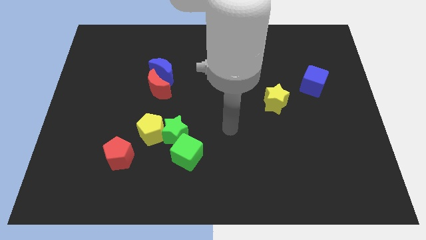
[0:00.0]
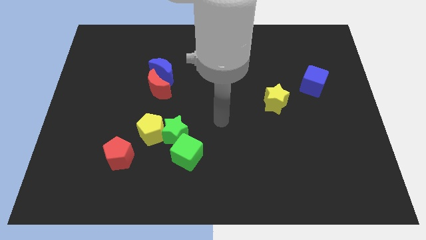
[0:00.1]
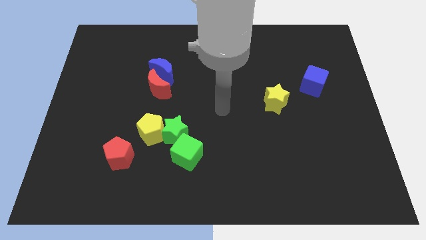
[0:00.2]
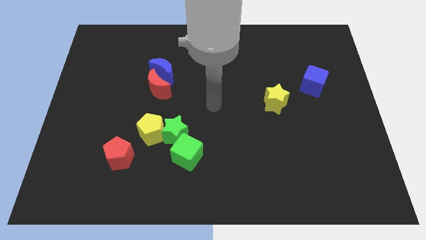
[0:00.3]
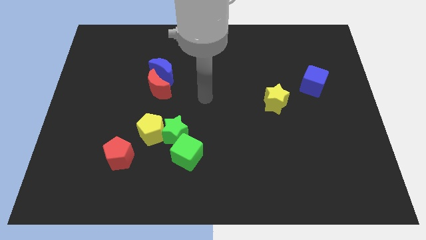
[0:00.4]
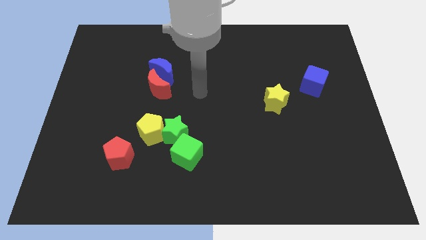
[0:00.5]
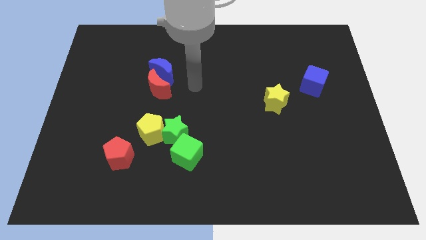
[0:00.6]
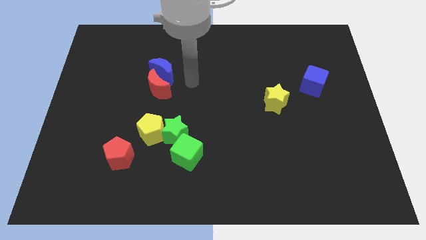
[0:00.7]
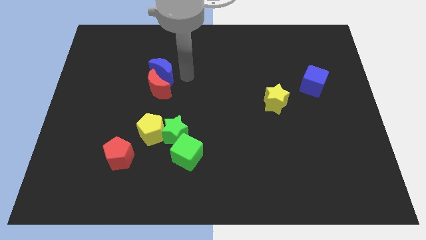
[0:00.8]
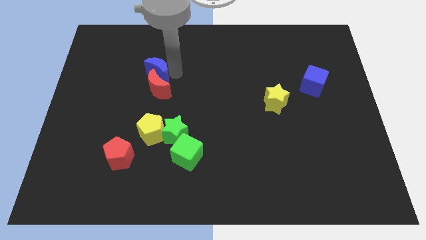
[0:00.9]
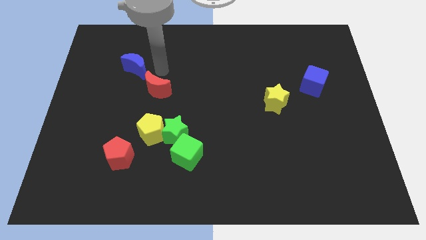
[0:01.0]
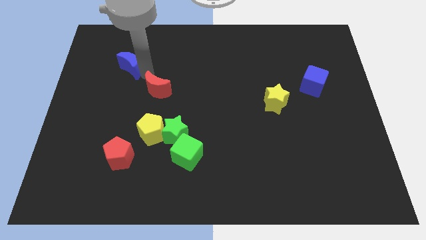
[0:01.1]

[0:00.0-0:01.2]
pull the red moon apart from the blue moon

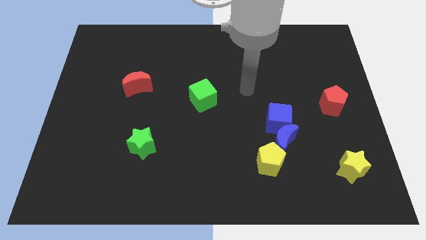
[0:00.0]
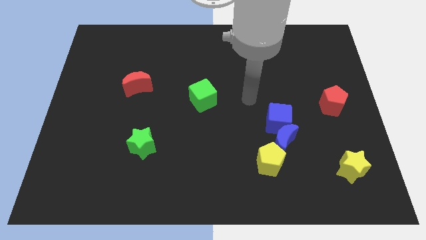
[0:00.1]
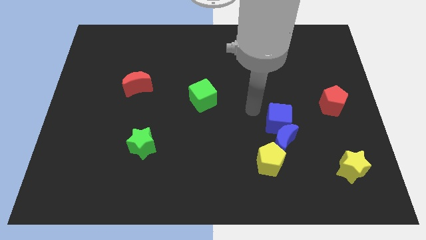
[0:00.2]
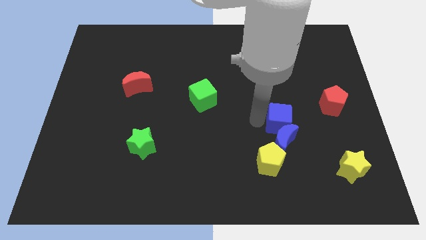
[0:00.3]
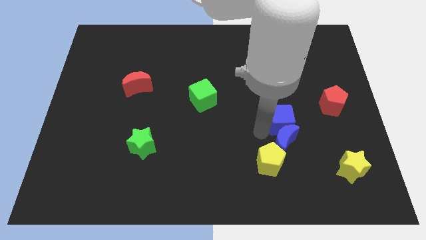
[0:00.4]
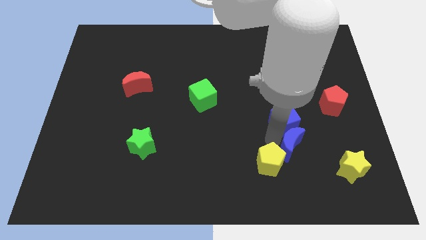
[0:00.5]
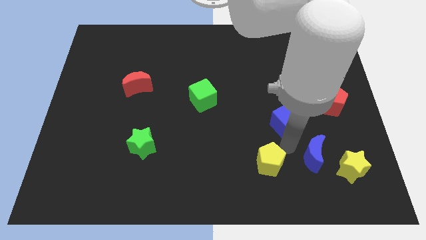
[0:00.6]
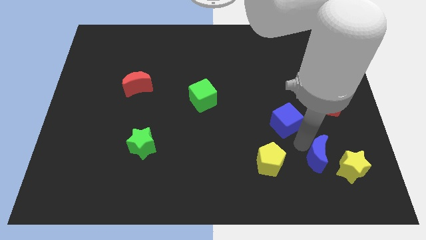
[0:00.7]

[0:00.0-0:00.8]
pull the blue cube apart from the blue moon

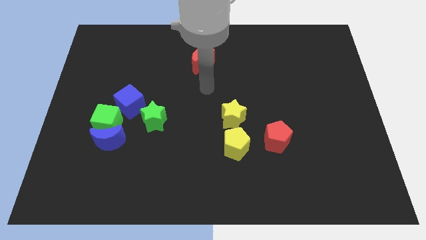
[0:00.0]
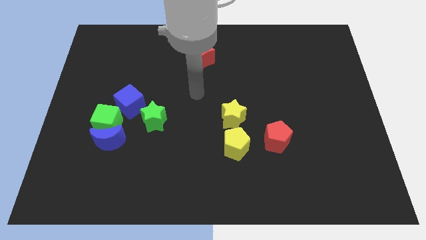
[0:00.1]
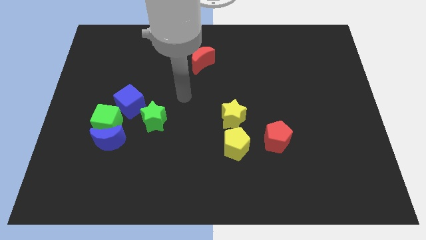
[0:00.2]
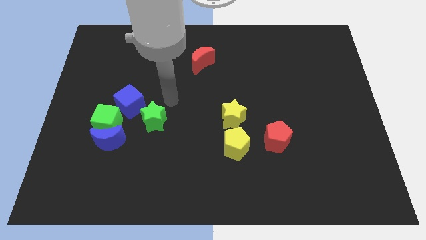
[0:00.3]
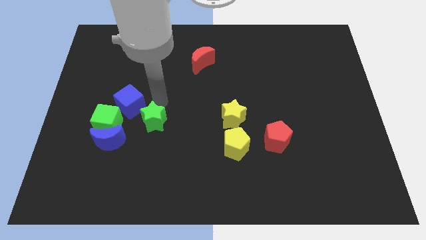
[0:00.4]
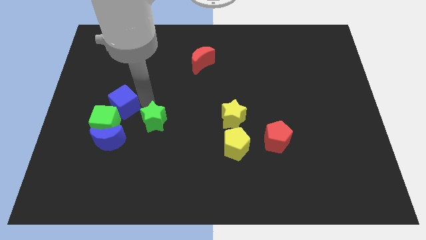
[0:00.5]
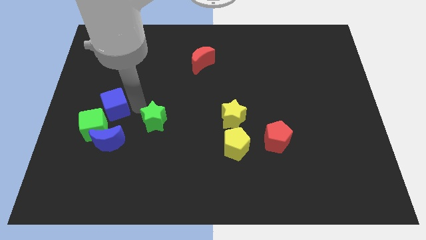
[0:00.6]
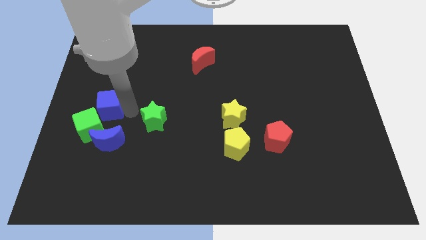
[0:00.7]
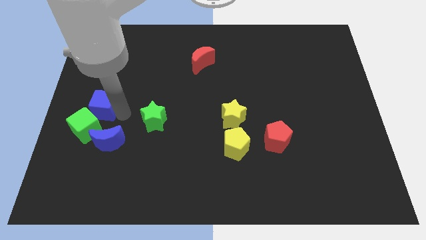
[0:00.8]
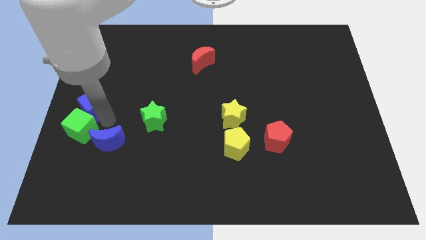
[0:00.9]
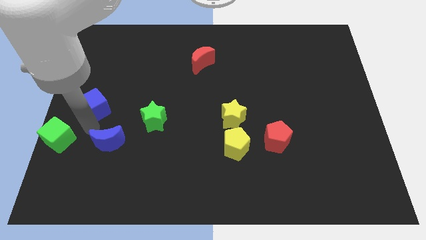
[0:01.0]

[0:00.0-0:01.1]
separate the blue moon from the green cube

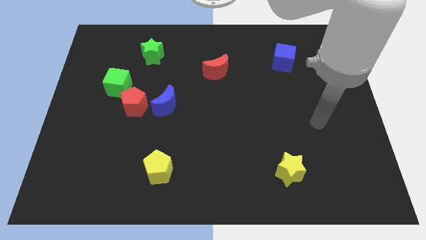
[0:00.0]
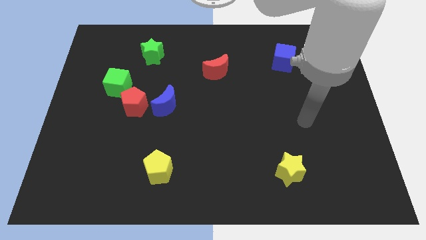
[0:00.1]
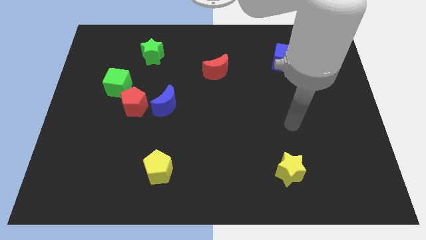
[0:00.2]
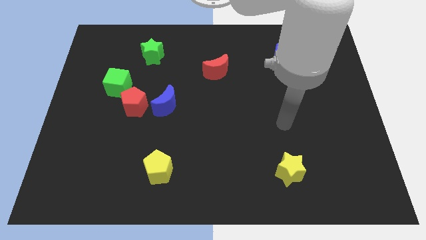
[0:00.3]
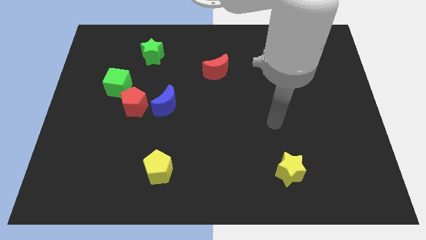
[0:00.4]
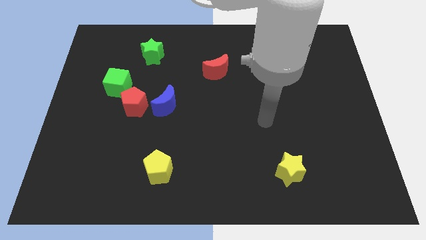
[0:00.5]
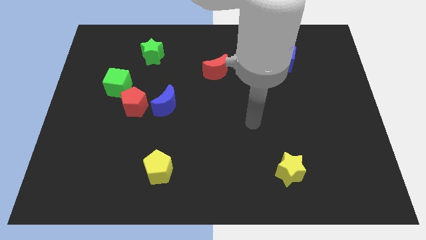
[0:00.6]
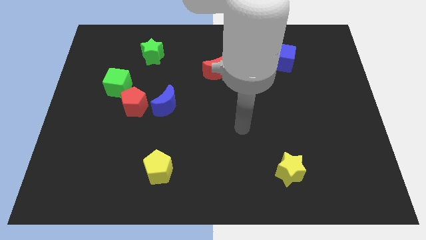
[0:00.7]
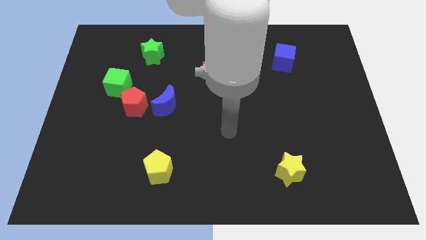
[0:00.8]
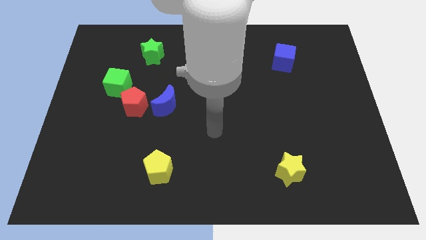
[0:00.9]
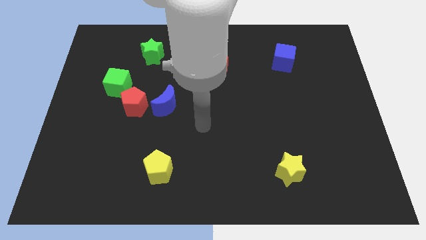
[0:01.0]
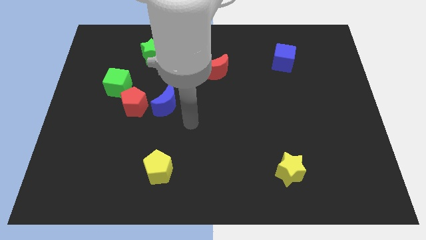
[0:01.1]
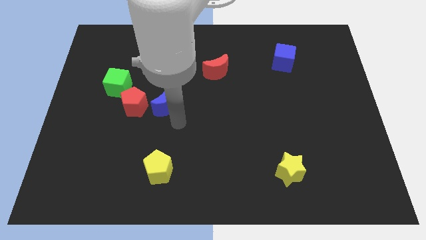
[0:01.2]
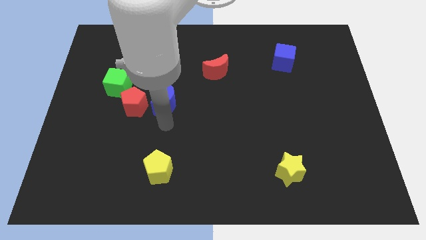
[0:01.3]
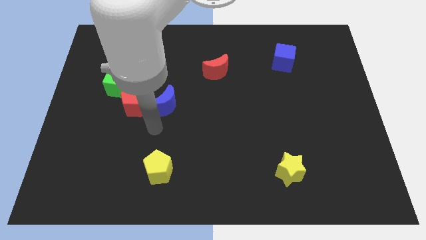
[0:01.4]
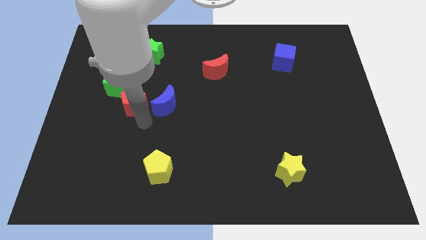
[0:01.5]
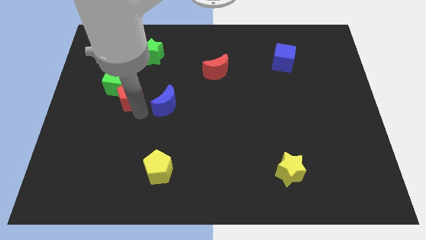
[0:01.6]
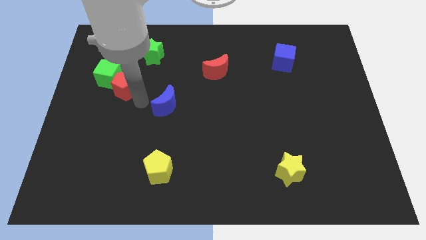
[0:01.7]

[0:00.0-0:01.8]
separate the blue moon from the red pentagon

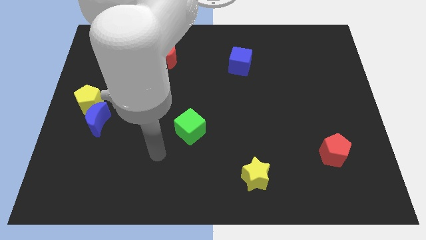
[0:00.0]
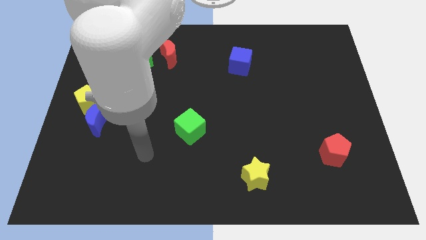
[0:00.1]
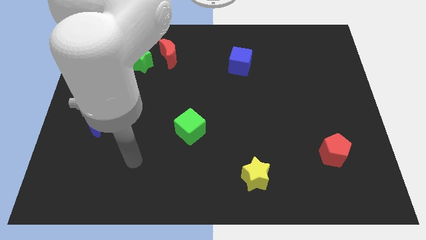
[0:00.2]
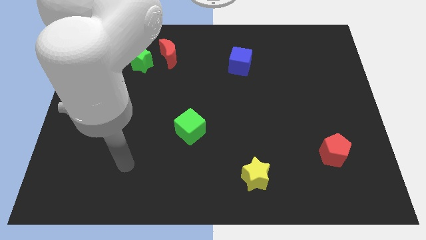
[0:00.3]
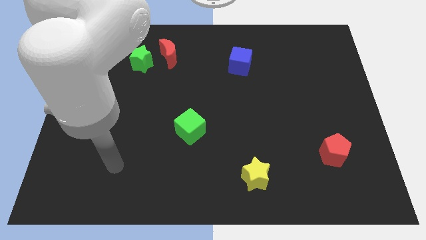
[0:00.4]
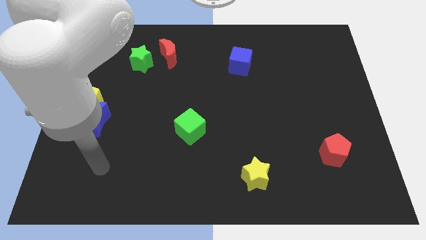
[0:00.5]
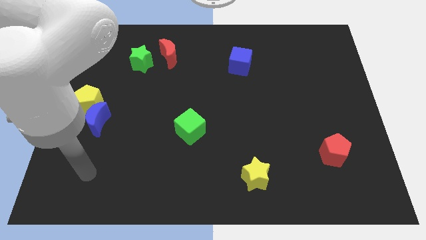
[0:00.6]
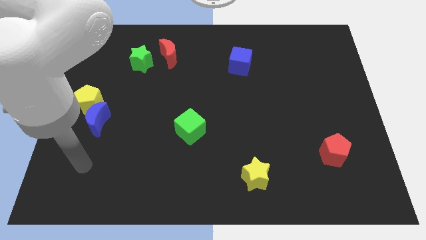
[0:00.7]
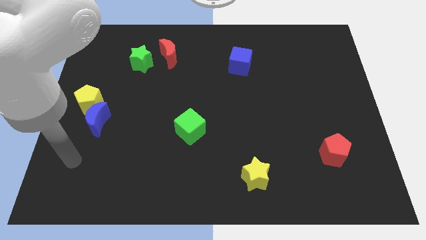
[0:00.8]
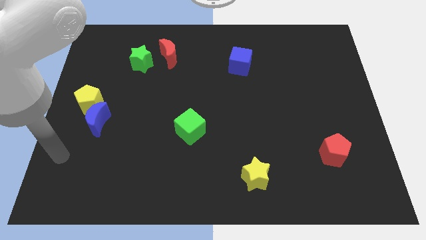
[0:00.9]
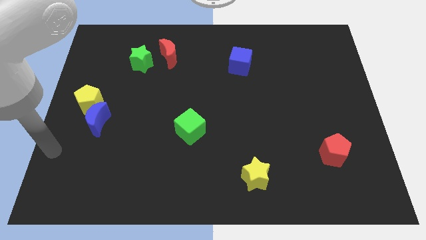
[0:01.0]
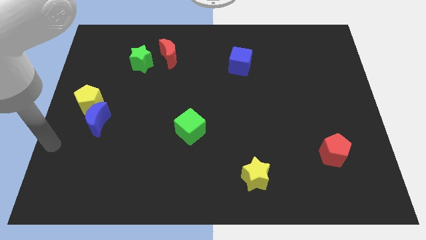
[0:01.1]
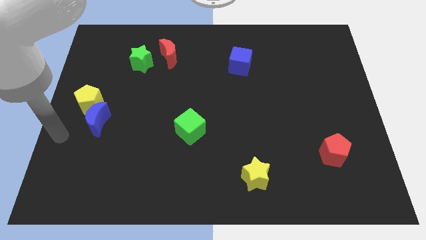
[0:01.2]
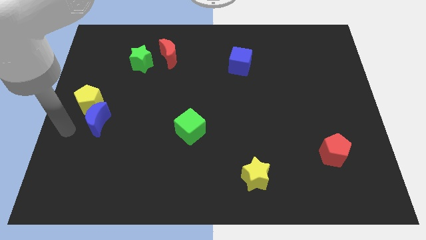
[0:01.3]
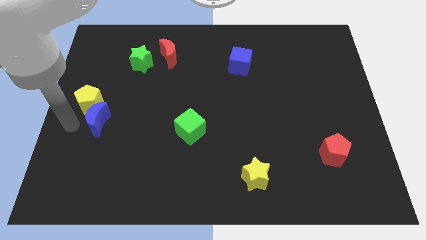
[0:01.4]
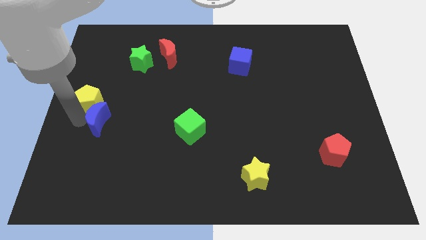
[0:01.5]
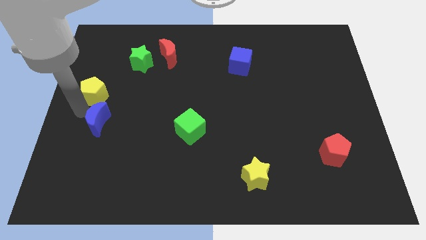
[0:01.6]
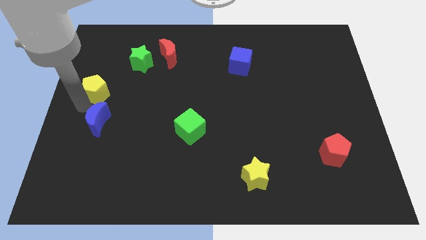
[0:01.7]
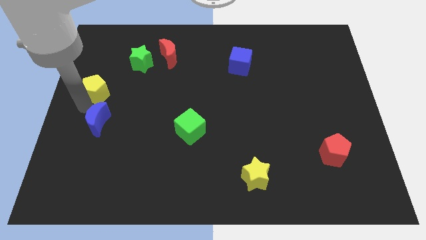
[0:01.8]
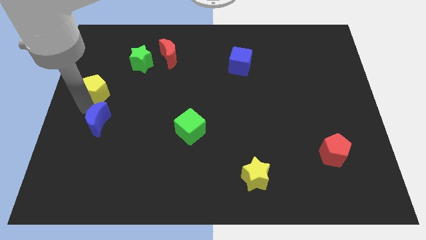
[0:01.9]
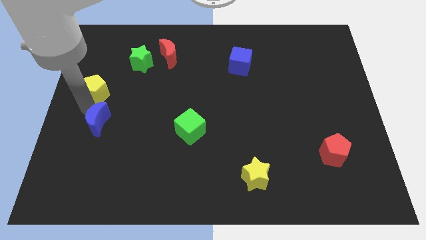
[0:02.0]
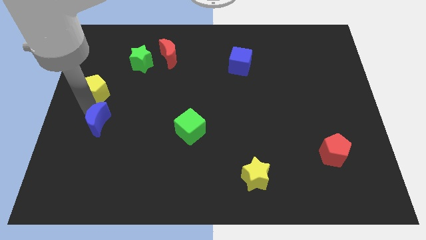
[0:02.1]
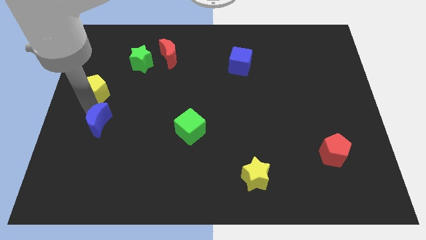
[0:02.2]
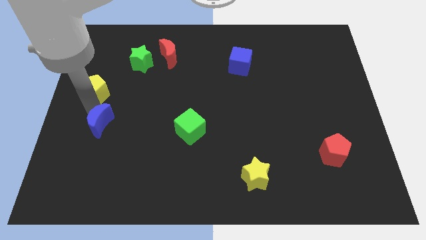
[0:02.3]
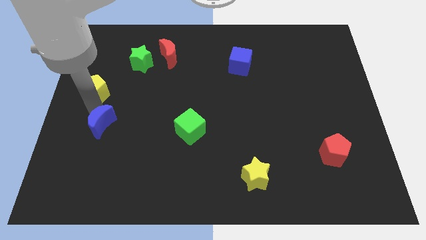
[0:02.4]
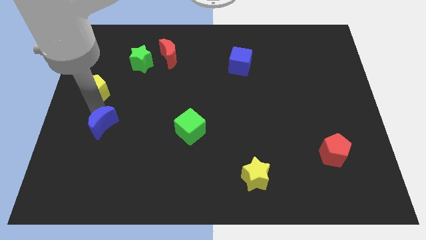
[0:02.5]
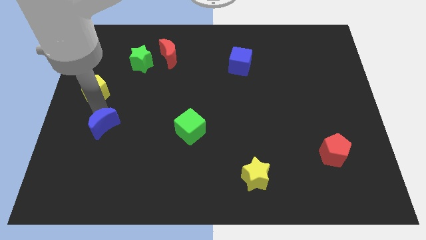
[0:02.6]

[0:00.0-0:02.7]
pull the blue moon apart from the yellow pentagon

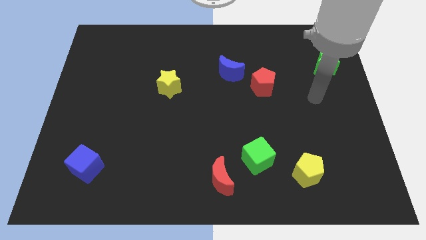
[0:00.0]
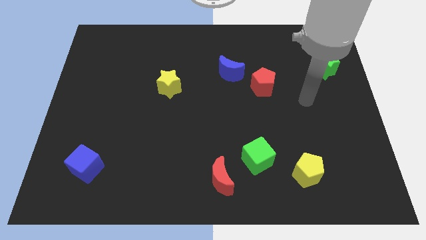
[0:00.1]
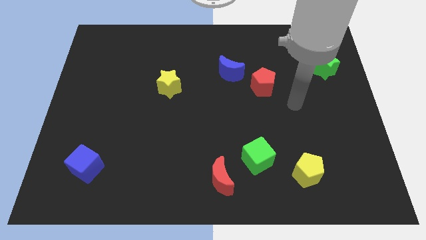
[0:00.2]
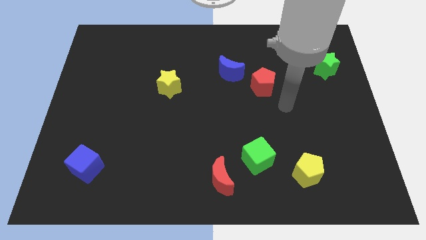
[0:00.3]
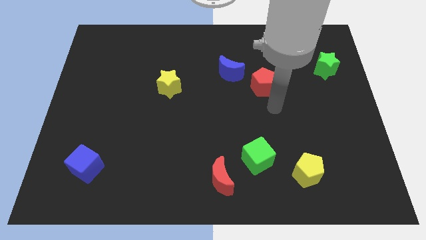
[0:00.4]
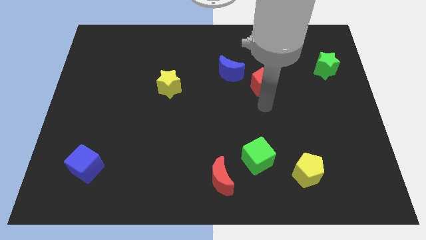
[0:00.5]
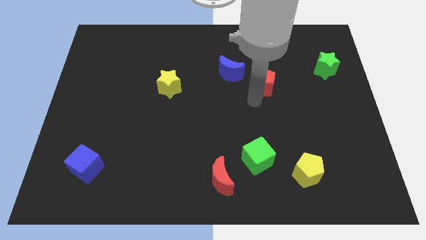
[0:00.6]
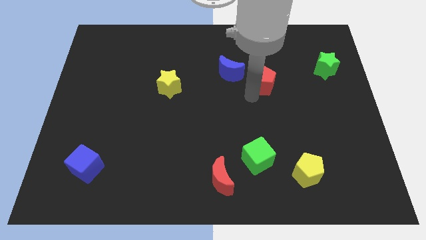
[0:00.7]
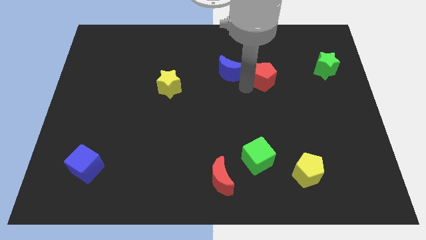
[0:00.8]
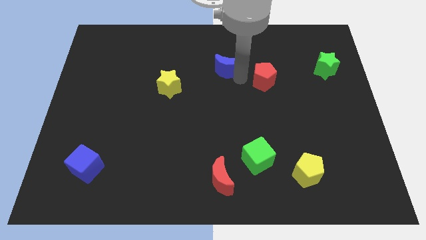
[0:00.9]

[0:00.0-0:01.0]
separate the red pentagon from the blue moon

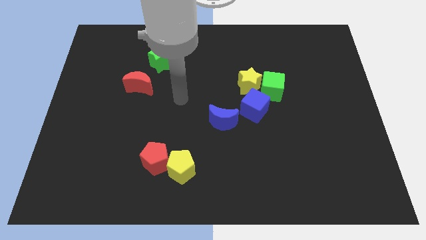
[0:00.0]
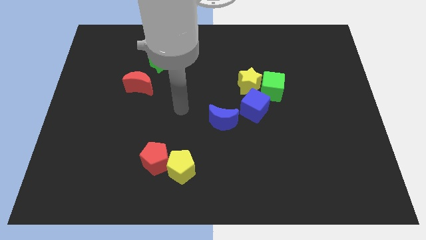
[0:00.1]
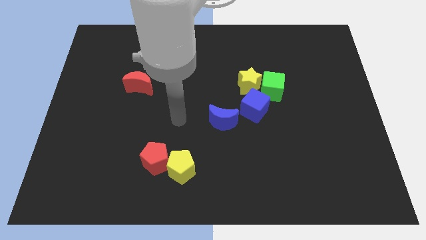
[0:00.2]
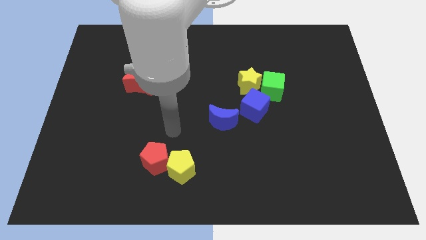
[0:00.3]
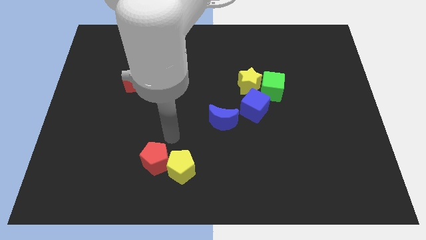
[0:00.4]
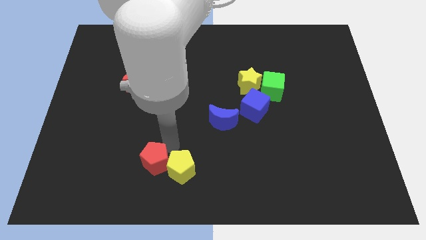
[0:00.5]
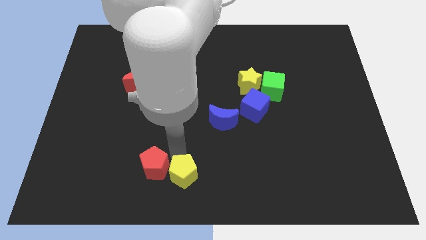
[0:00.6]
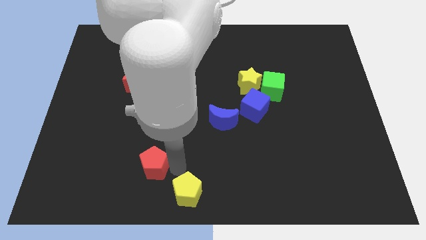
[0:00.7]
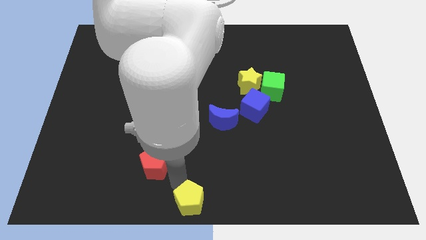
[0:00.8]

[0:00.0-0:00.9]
move the red pentagon away from the yellow pentagon
